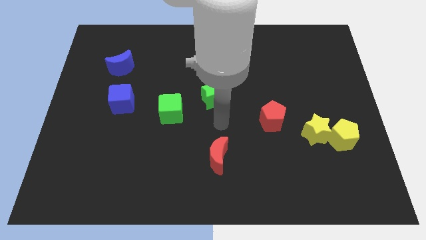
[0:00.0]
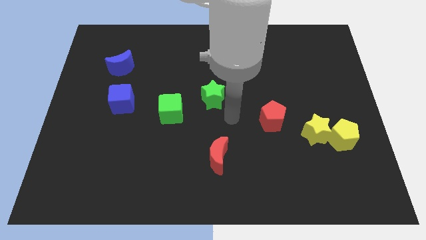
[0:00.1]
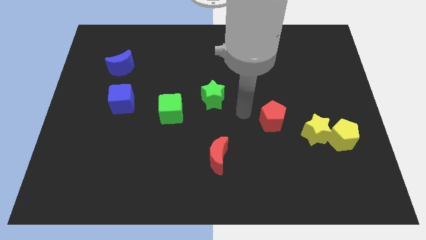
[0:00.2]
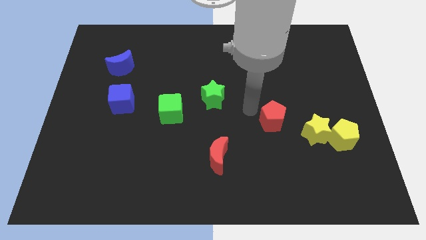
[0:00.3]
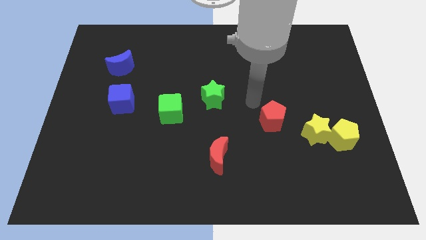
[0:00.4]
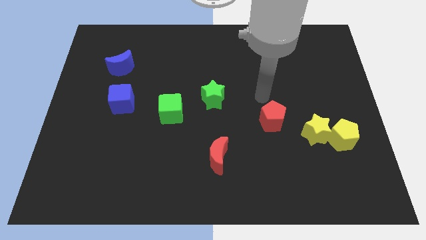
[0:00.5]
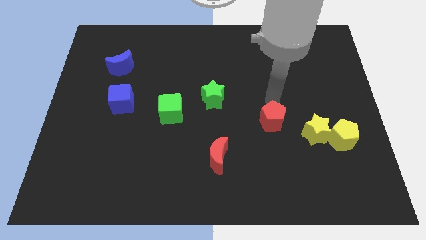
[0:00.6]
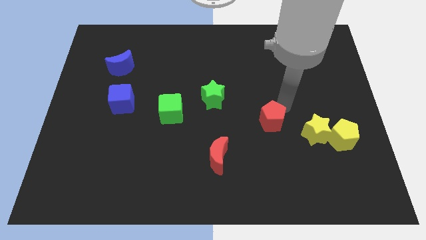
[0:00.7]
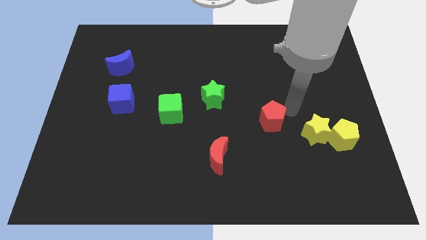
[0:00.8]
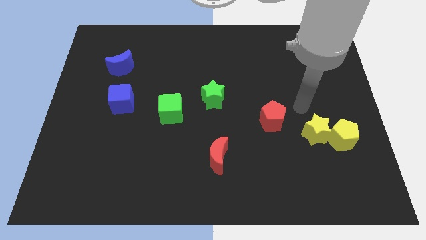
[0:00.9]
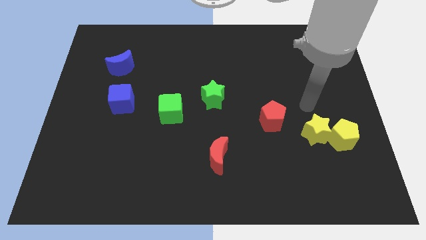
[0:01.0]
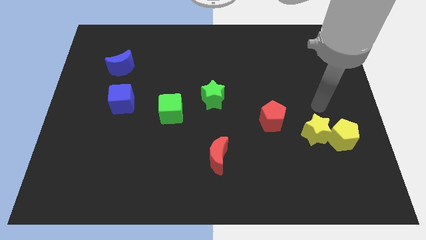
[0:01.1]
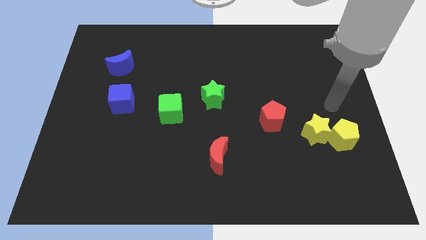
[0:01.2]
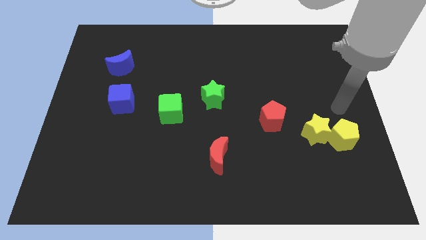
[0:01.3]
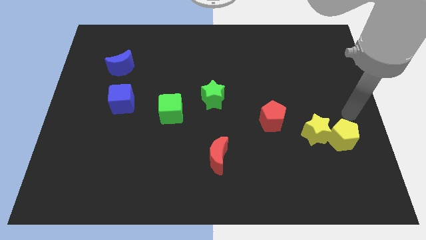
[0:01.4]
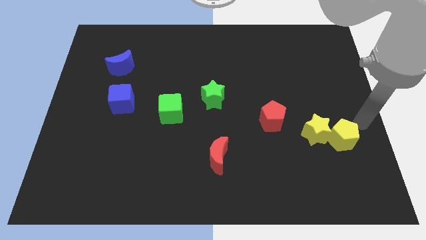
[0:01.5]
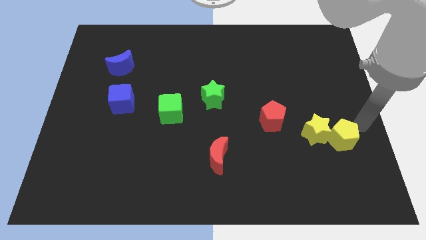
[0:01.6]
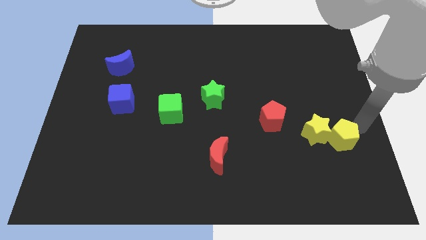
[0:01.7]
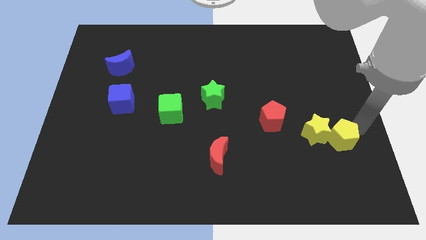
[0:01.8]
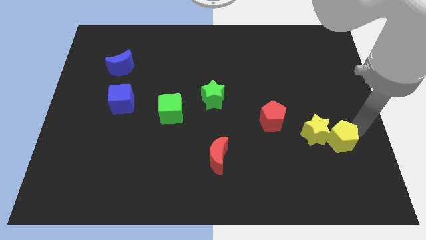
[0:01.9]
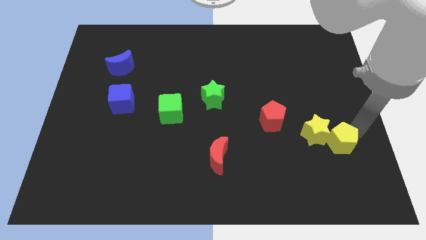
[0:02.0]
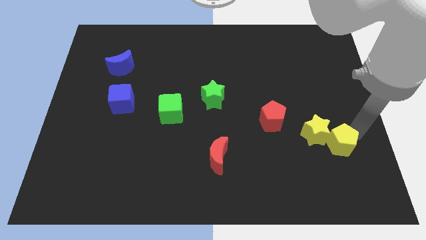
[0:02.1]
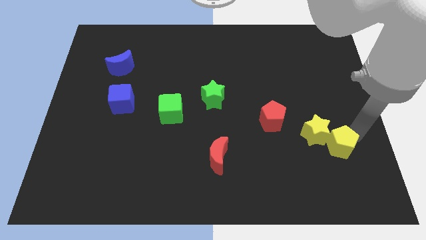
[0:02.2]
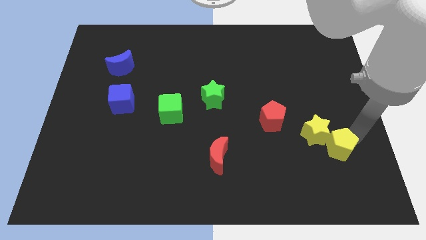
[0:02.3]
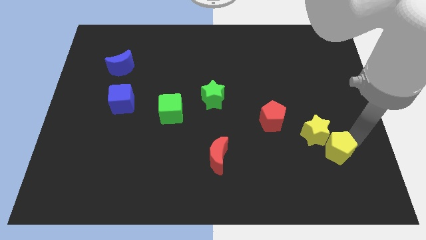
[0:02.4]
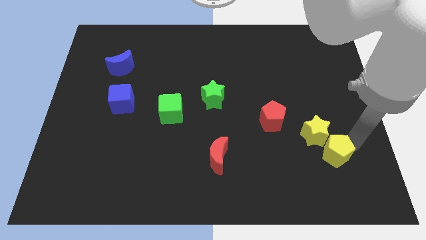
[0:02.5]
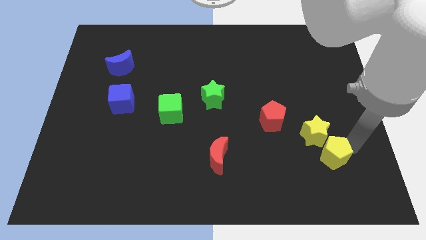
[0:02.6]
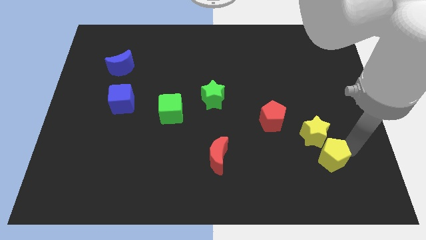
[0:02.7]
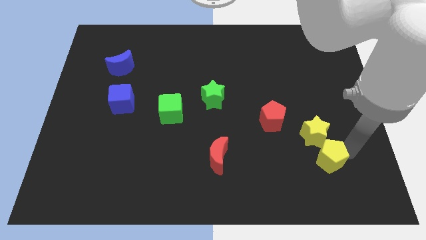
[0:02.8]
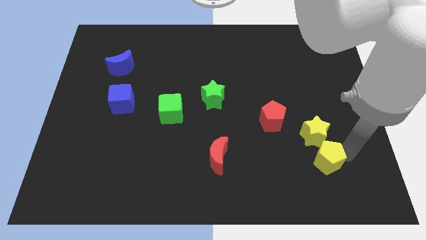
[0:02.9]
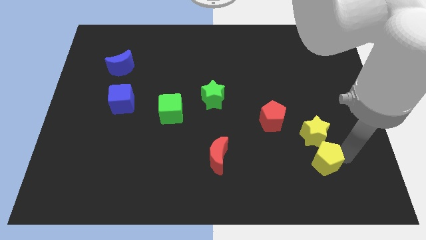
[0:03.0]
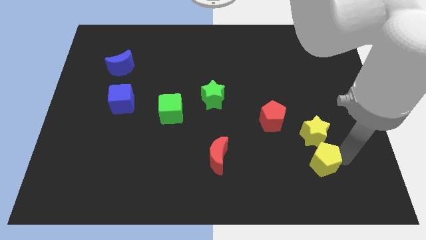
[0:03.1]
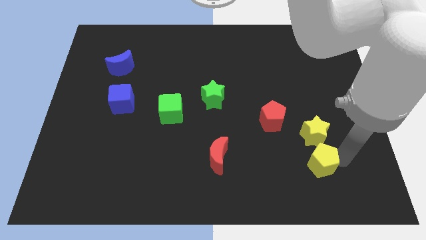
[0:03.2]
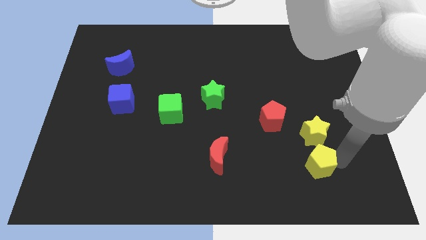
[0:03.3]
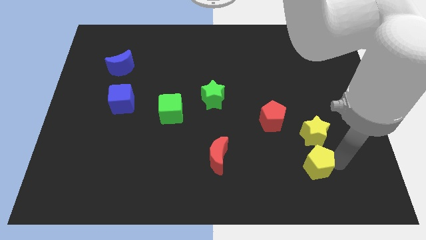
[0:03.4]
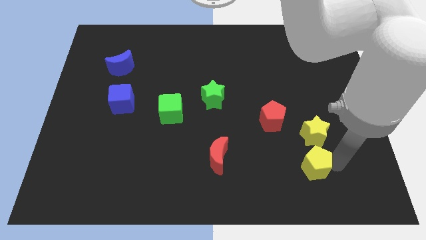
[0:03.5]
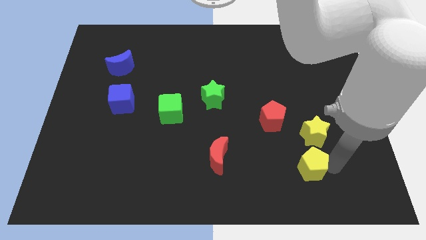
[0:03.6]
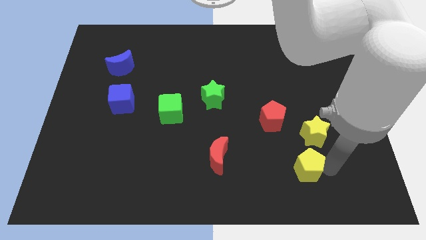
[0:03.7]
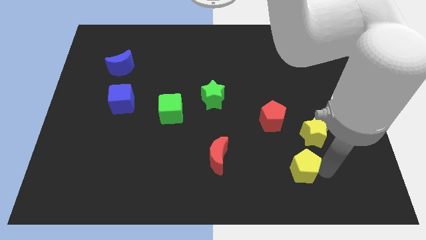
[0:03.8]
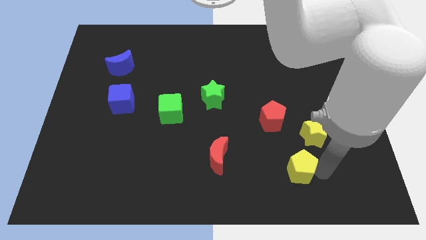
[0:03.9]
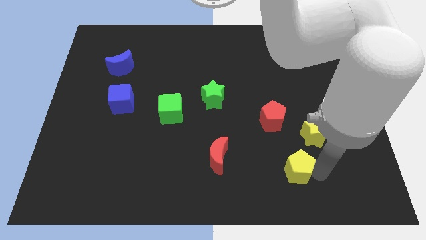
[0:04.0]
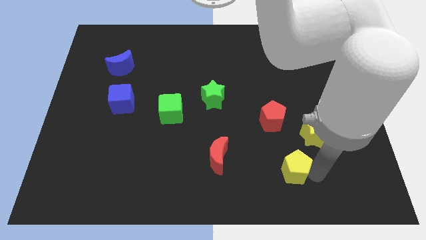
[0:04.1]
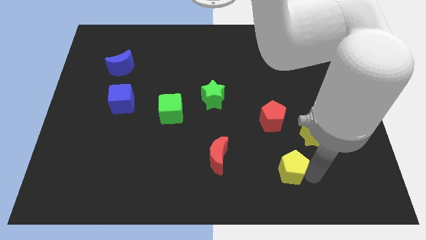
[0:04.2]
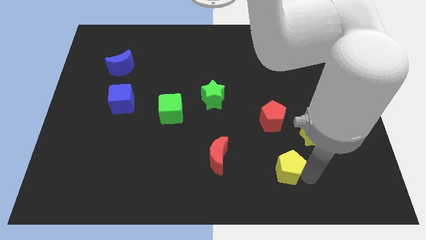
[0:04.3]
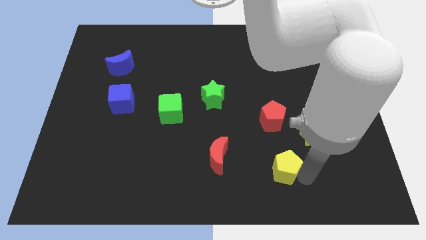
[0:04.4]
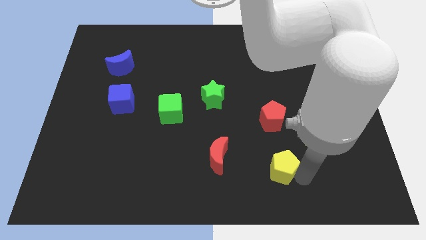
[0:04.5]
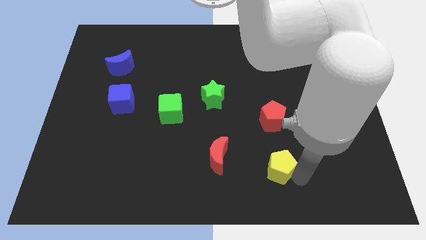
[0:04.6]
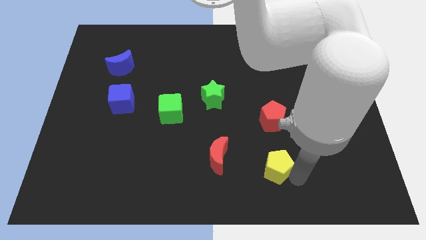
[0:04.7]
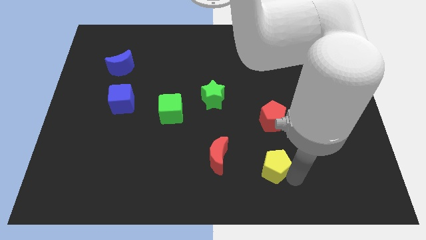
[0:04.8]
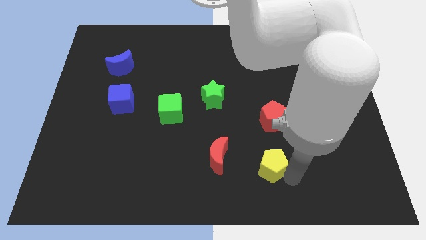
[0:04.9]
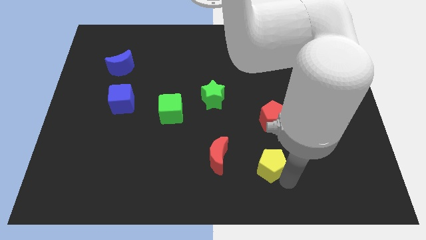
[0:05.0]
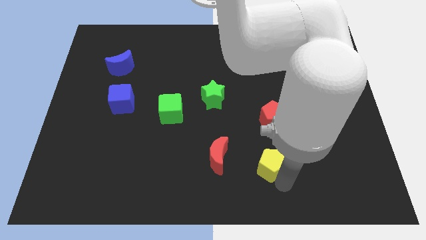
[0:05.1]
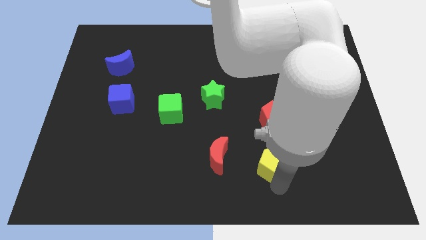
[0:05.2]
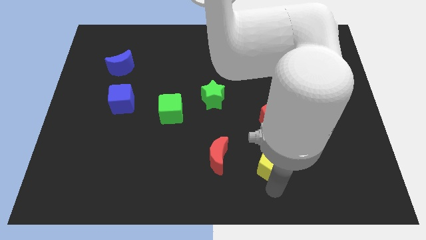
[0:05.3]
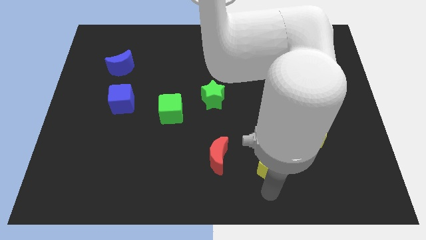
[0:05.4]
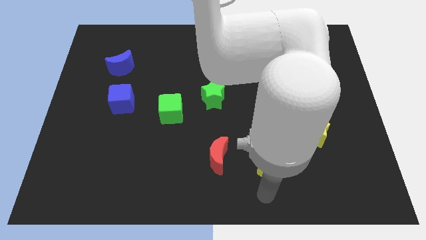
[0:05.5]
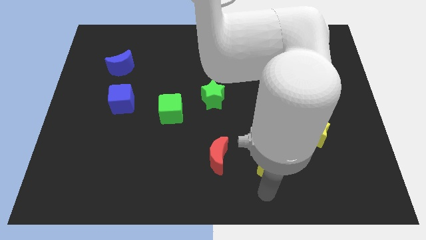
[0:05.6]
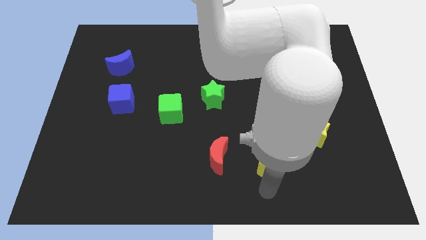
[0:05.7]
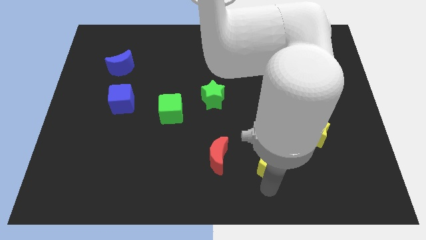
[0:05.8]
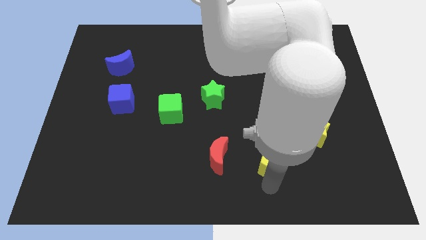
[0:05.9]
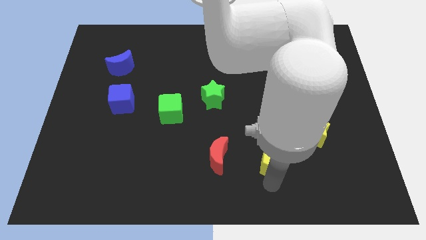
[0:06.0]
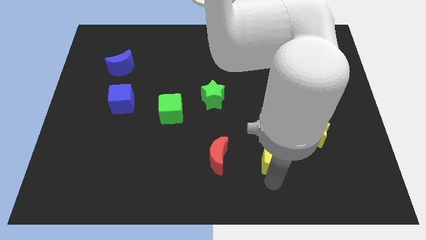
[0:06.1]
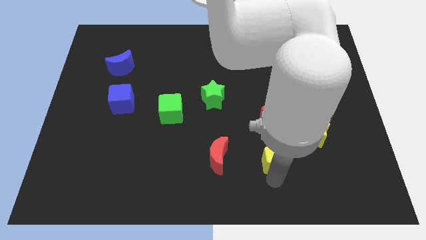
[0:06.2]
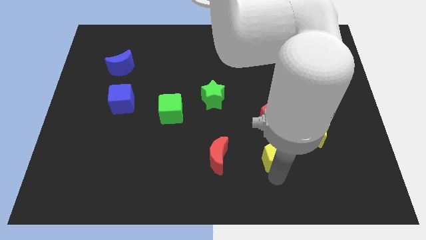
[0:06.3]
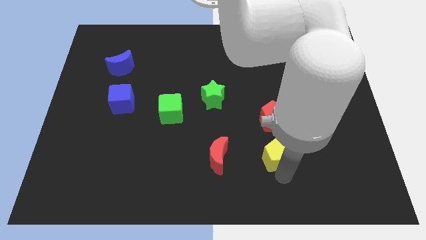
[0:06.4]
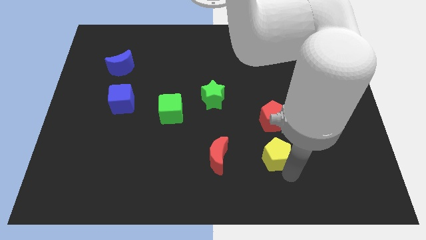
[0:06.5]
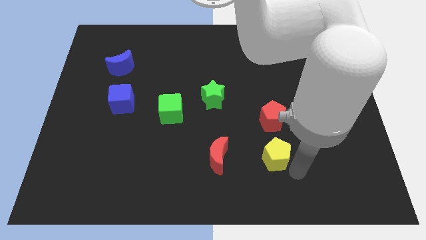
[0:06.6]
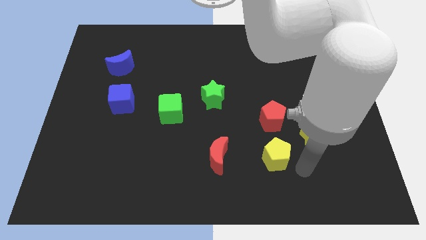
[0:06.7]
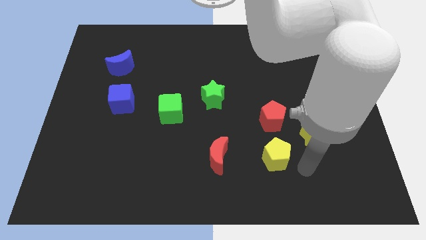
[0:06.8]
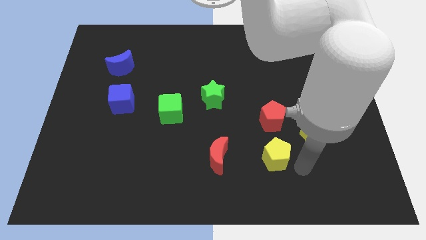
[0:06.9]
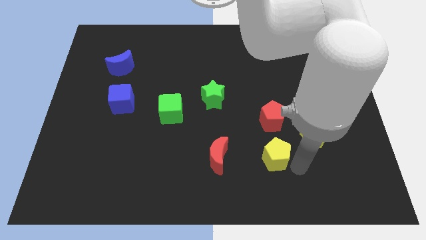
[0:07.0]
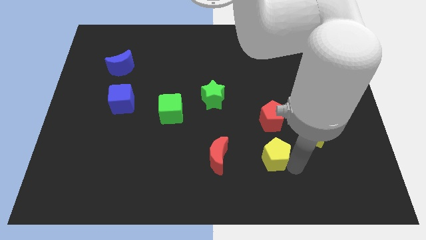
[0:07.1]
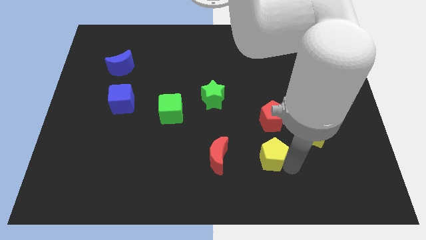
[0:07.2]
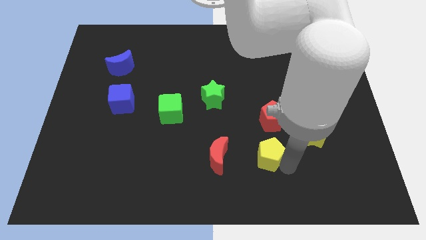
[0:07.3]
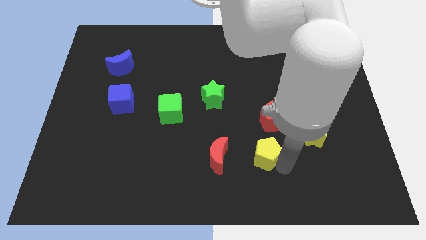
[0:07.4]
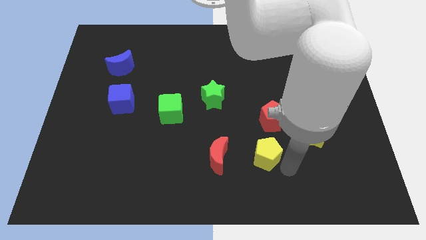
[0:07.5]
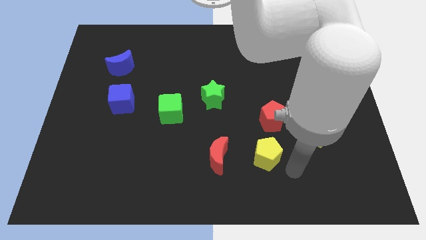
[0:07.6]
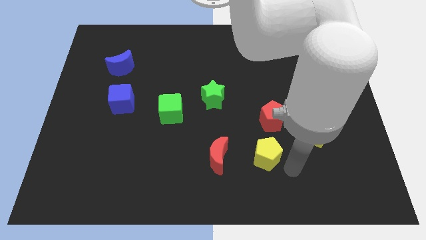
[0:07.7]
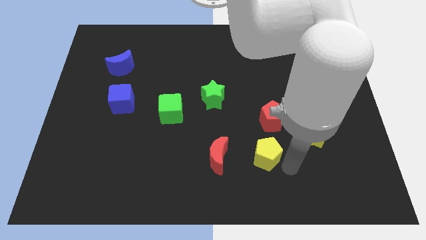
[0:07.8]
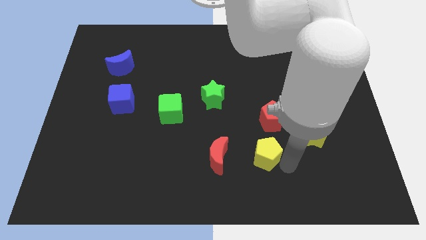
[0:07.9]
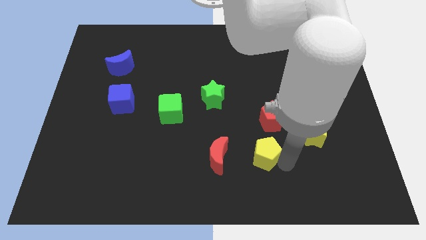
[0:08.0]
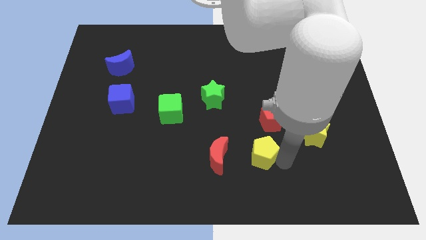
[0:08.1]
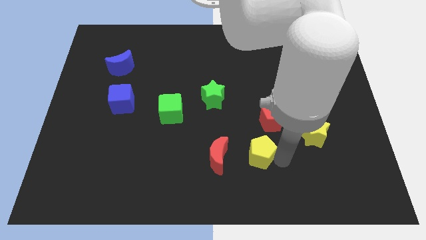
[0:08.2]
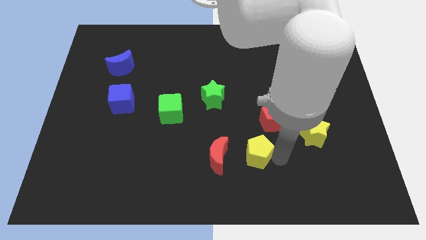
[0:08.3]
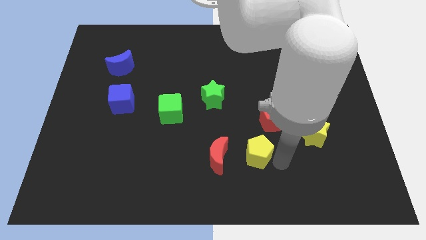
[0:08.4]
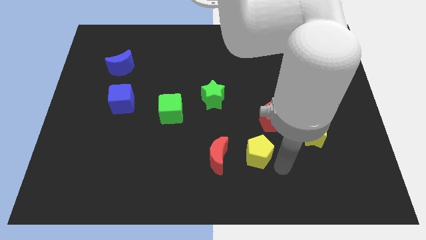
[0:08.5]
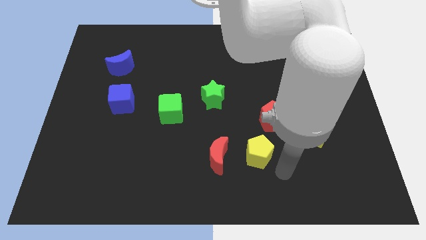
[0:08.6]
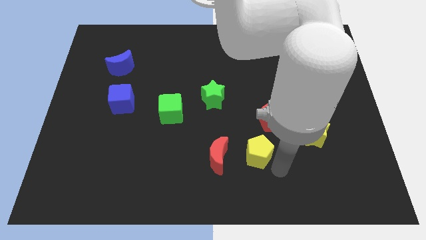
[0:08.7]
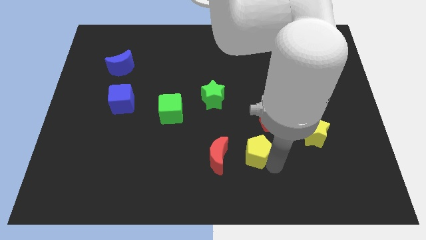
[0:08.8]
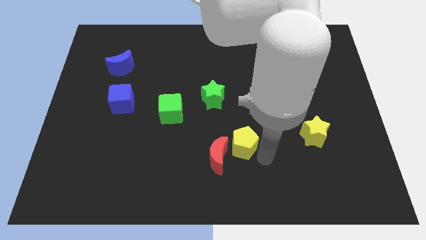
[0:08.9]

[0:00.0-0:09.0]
move the yellow pentagon to the left
